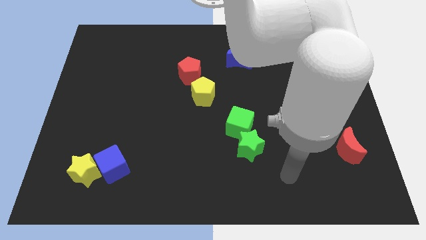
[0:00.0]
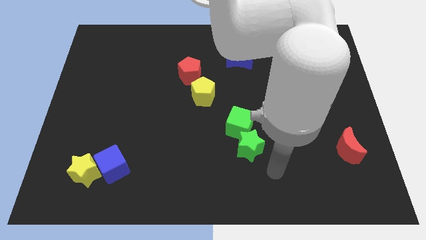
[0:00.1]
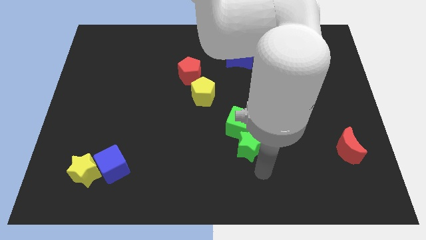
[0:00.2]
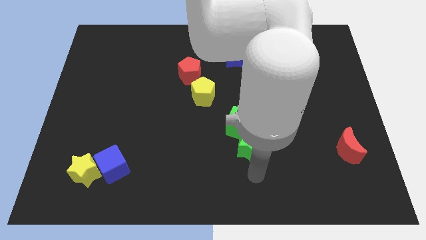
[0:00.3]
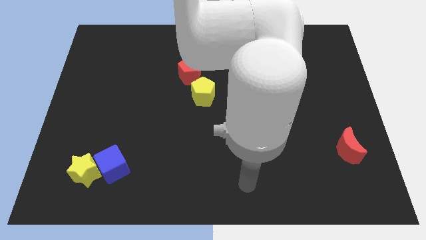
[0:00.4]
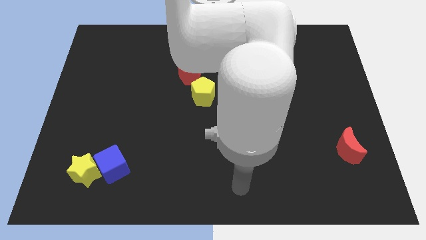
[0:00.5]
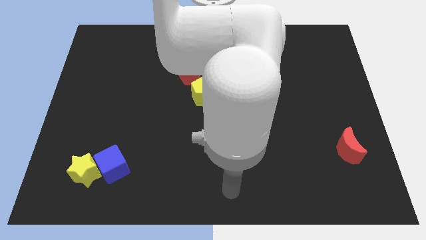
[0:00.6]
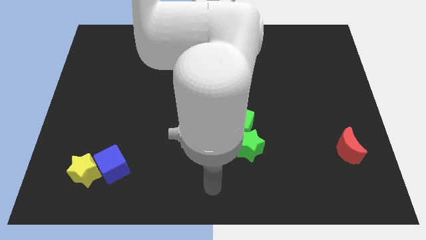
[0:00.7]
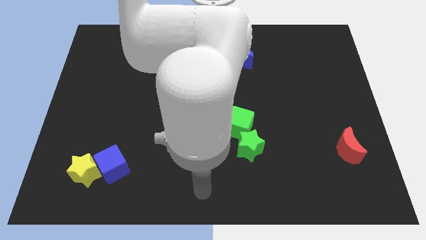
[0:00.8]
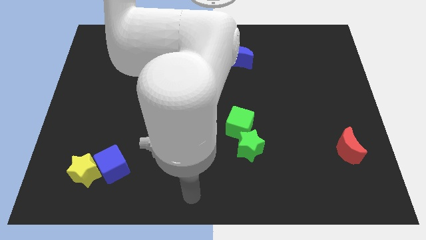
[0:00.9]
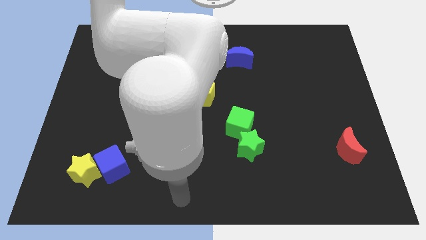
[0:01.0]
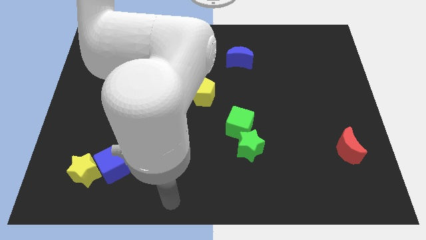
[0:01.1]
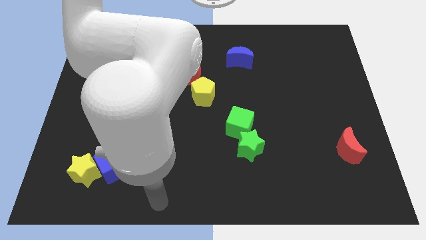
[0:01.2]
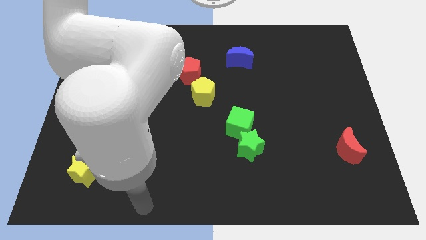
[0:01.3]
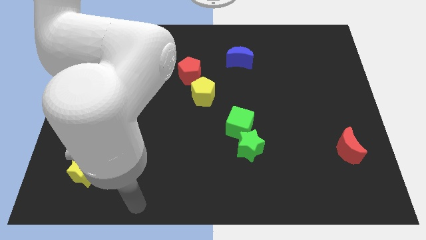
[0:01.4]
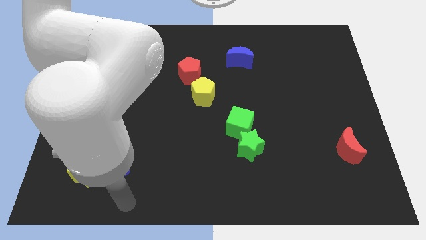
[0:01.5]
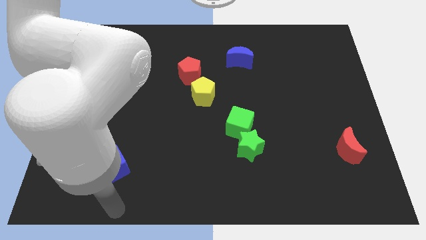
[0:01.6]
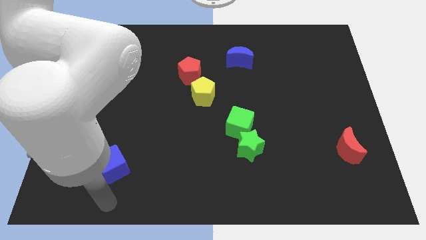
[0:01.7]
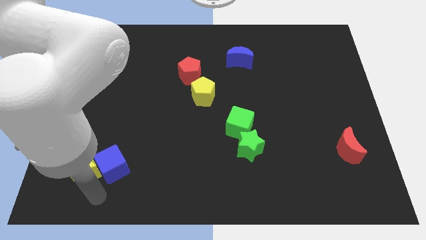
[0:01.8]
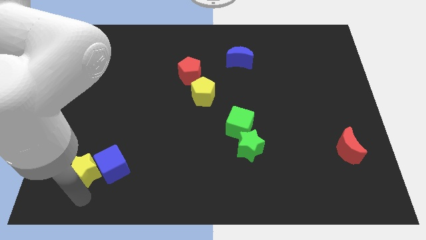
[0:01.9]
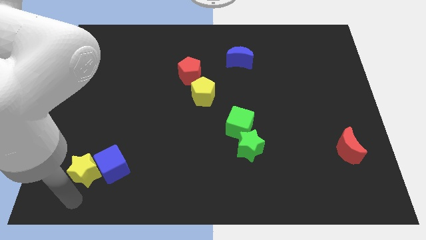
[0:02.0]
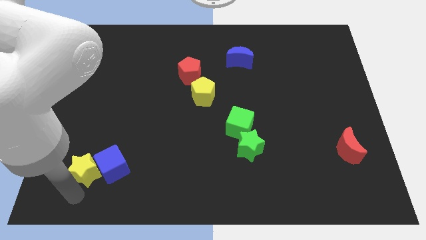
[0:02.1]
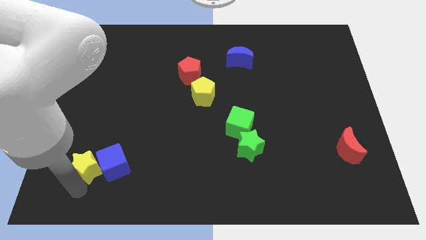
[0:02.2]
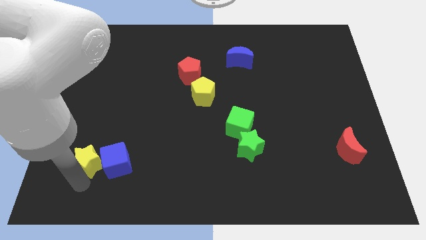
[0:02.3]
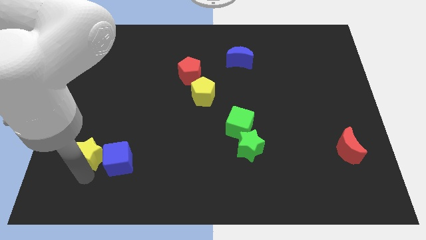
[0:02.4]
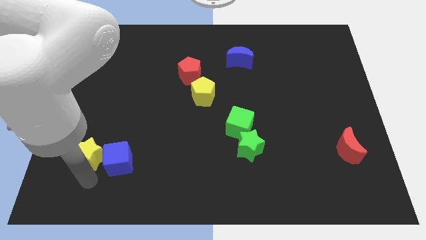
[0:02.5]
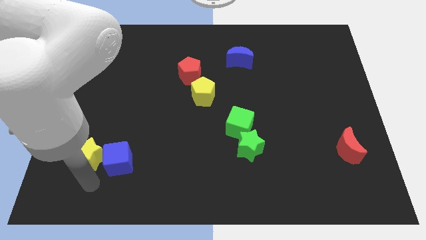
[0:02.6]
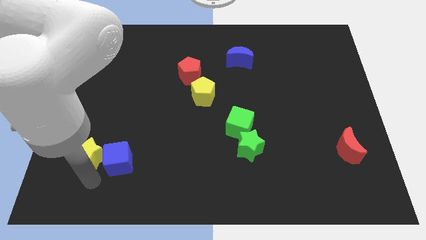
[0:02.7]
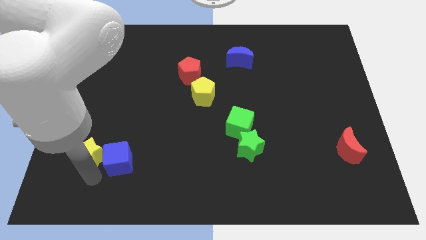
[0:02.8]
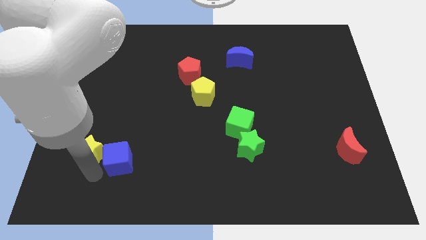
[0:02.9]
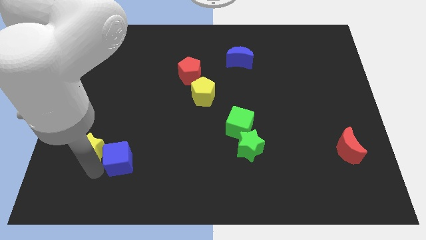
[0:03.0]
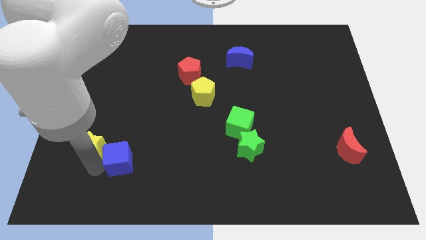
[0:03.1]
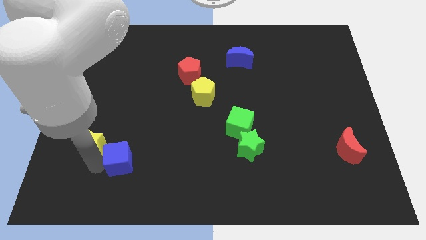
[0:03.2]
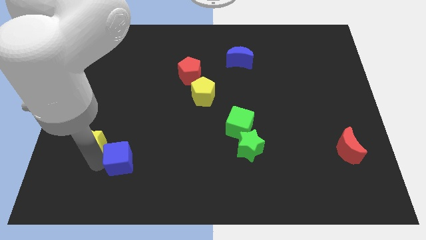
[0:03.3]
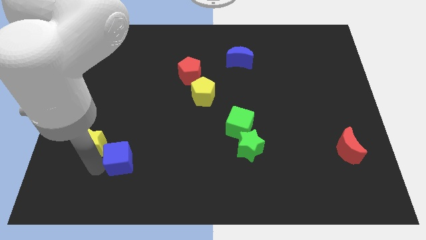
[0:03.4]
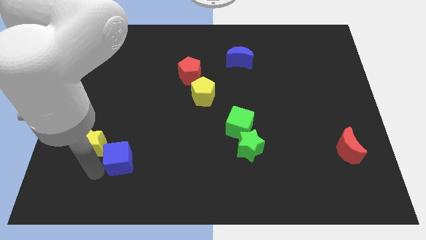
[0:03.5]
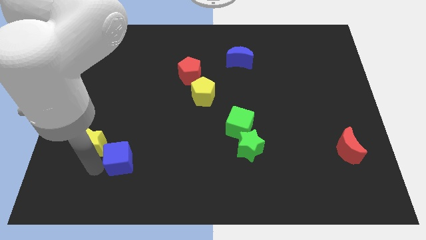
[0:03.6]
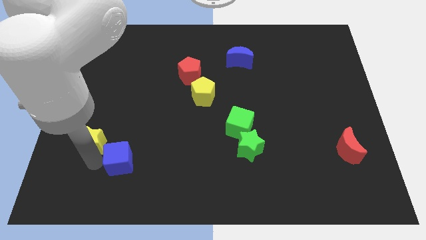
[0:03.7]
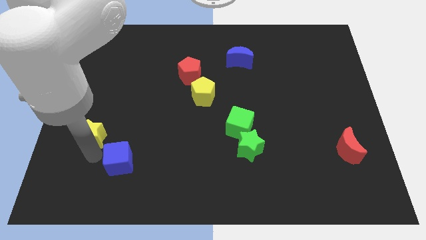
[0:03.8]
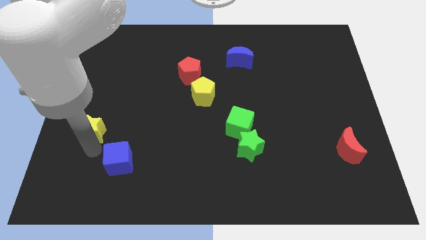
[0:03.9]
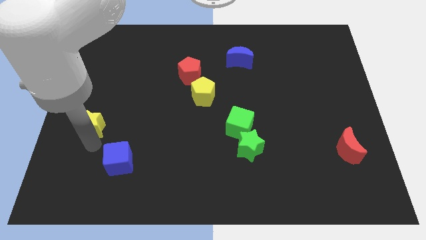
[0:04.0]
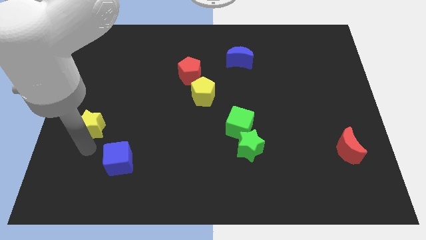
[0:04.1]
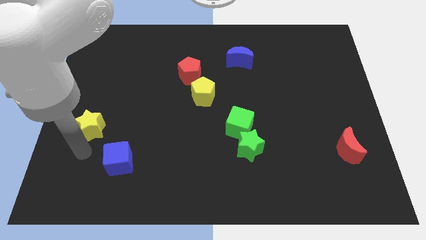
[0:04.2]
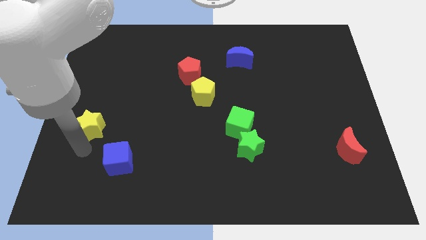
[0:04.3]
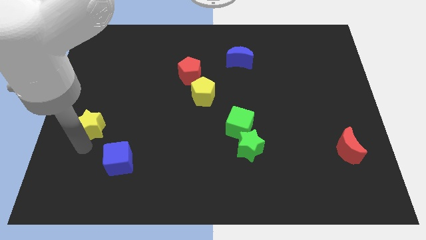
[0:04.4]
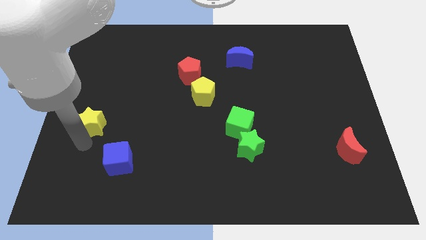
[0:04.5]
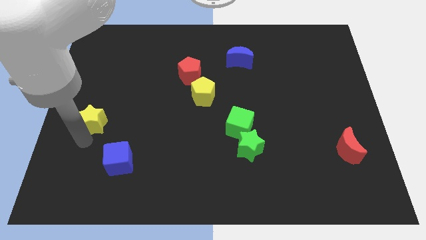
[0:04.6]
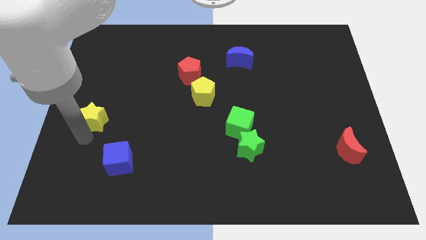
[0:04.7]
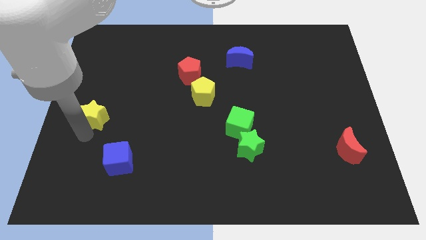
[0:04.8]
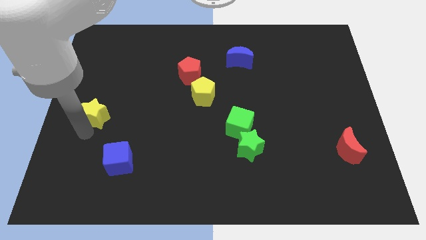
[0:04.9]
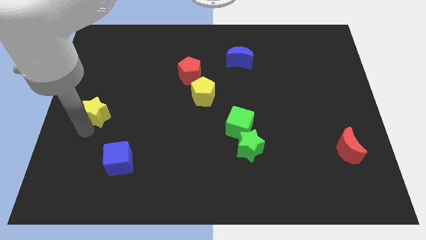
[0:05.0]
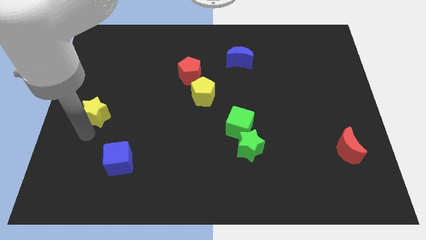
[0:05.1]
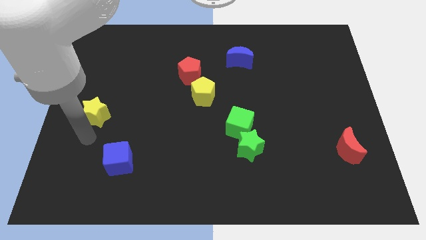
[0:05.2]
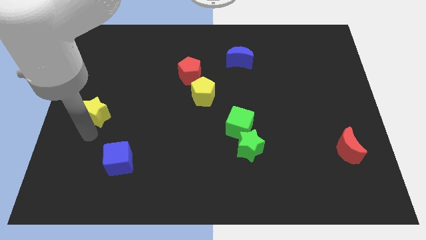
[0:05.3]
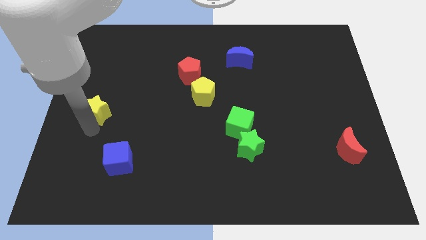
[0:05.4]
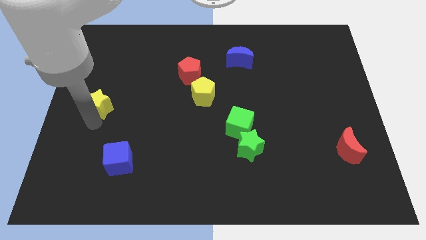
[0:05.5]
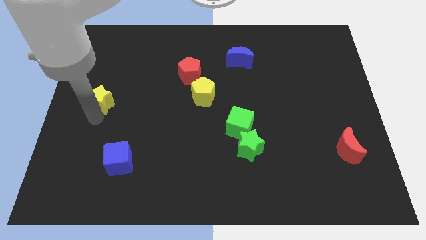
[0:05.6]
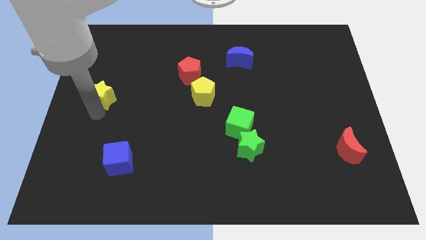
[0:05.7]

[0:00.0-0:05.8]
move the yellow star up

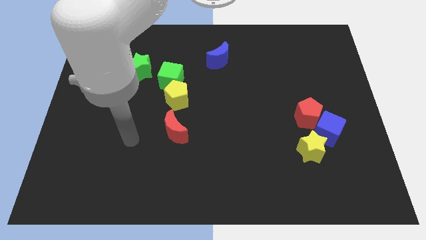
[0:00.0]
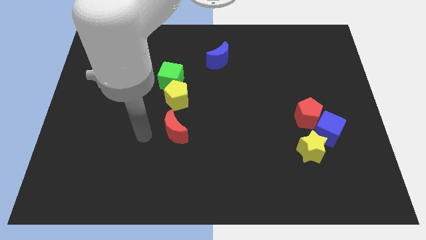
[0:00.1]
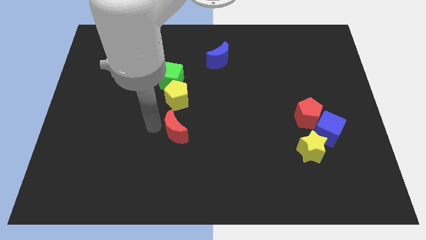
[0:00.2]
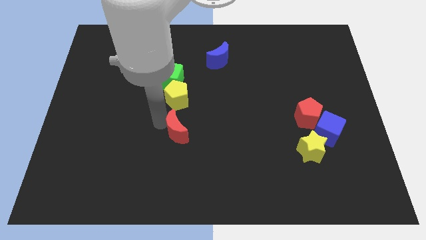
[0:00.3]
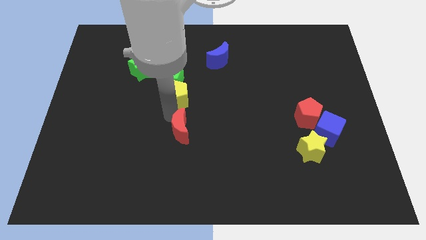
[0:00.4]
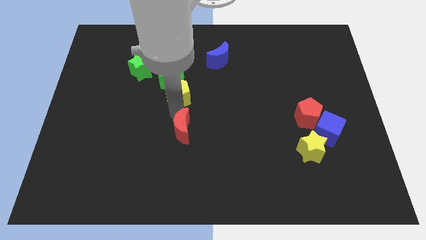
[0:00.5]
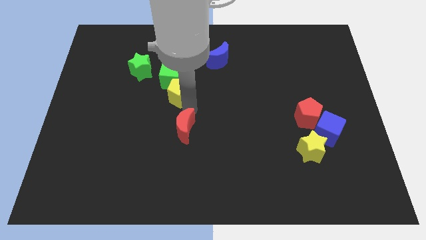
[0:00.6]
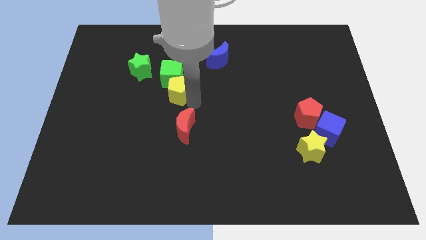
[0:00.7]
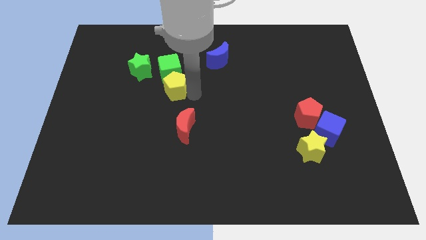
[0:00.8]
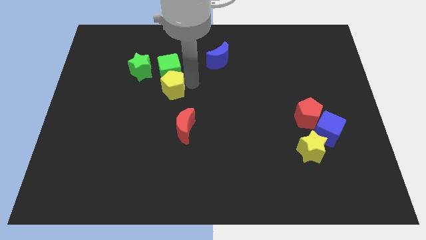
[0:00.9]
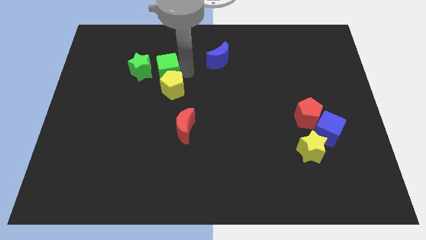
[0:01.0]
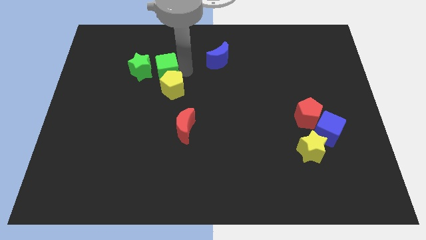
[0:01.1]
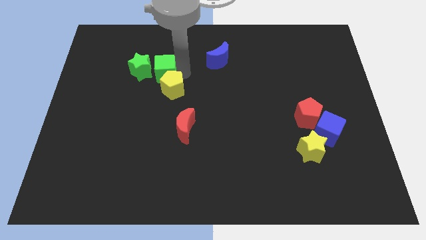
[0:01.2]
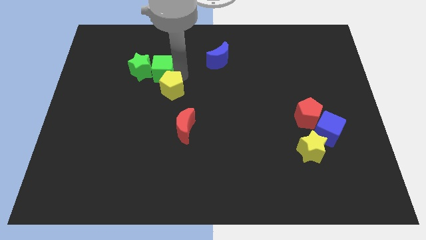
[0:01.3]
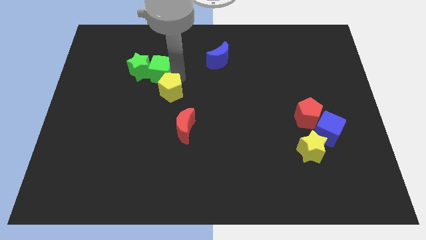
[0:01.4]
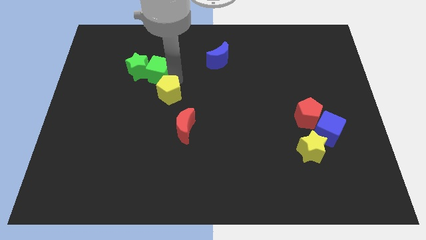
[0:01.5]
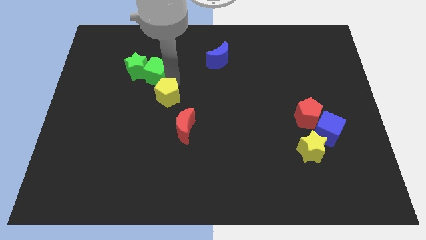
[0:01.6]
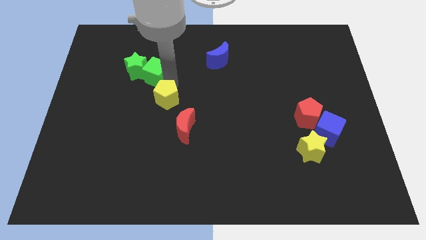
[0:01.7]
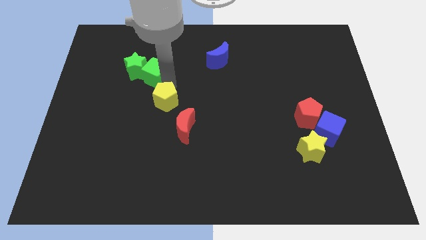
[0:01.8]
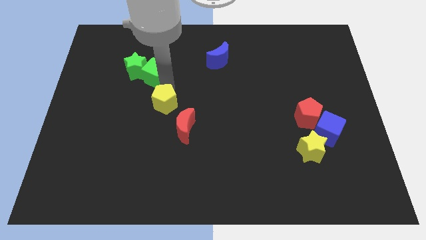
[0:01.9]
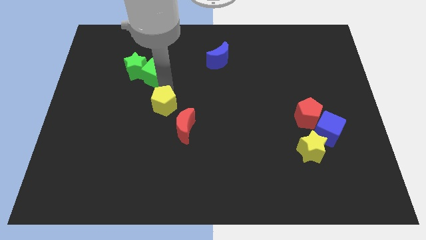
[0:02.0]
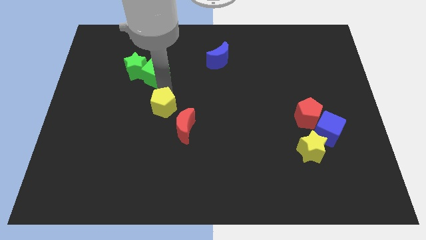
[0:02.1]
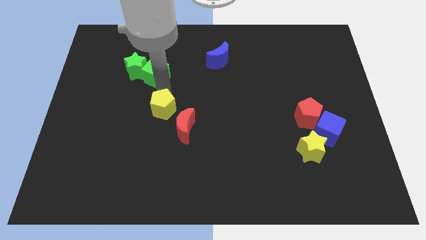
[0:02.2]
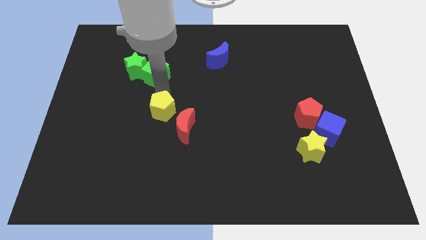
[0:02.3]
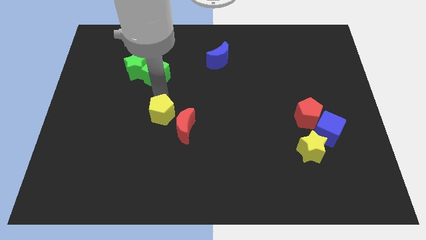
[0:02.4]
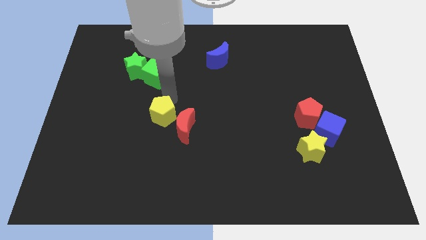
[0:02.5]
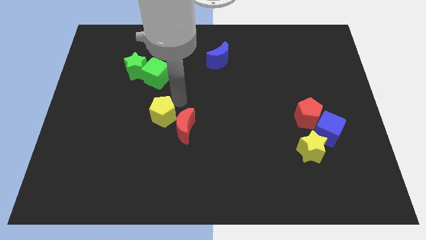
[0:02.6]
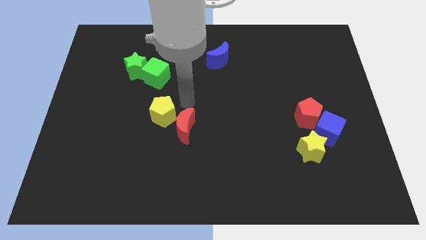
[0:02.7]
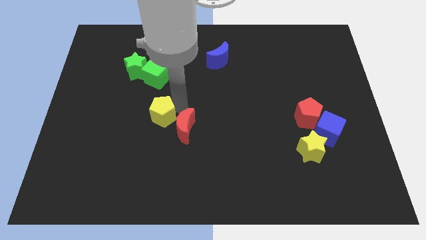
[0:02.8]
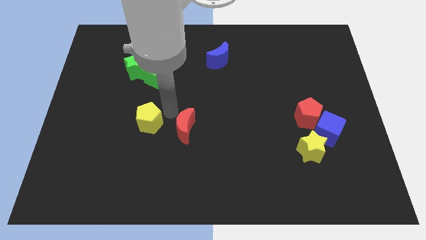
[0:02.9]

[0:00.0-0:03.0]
slide the yellow pentagon a bit diagonally downwards and left
